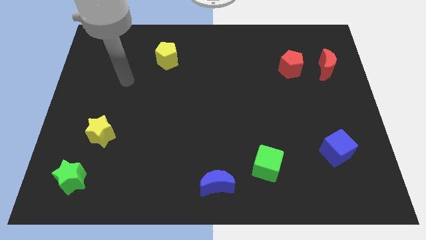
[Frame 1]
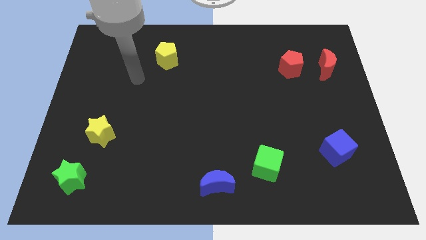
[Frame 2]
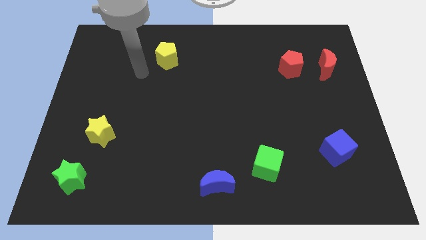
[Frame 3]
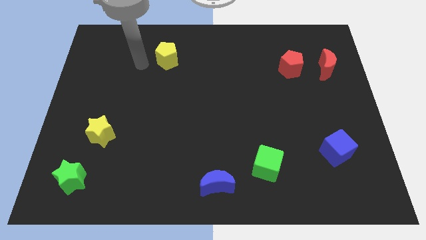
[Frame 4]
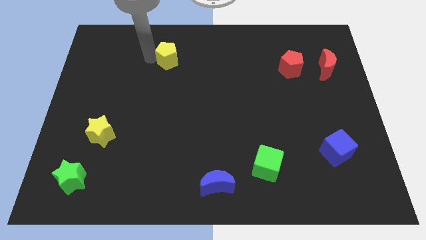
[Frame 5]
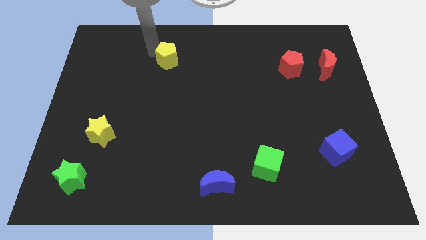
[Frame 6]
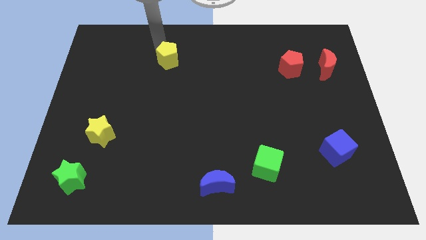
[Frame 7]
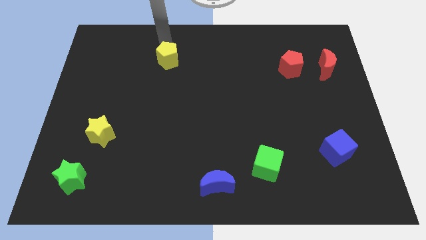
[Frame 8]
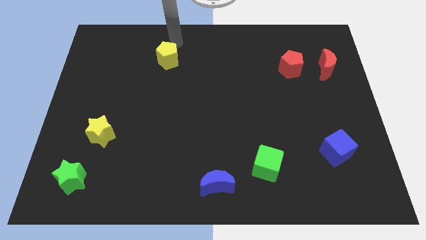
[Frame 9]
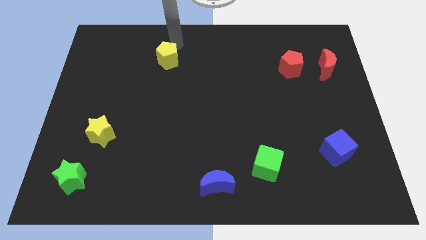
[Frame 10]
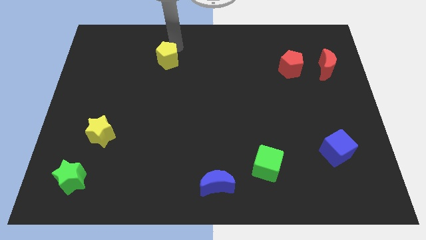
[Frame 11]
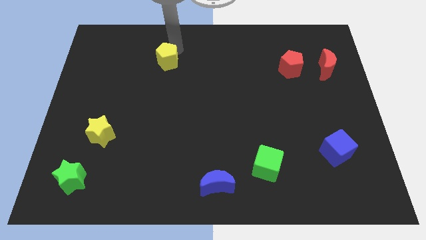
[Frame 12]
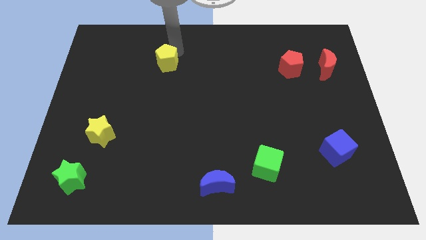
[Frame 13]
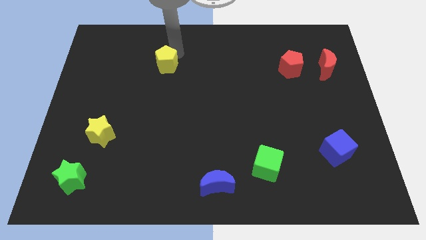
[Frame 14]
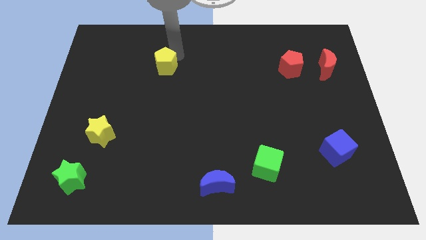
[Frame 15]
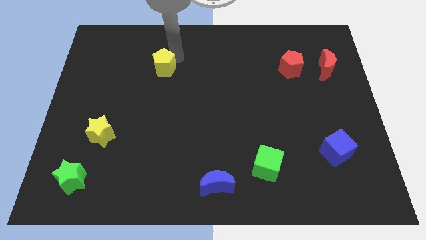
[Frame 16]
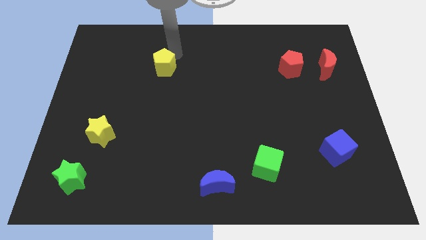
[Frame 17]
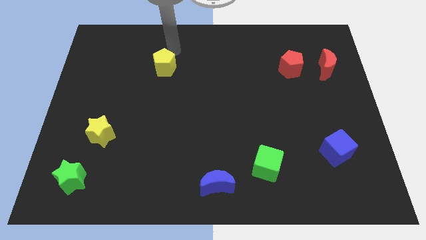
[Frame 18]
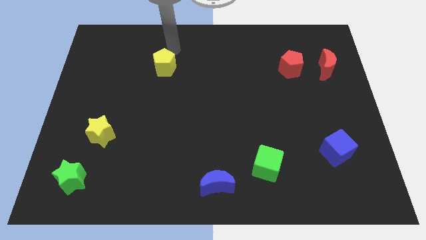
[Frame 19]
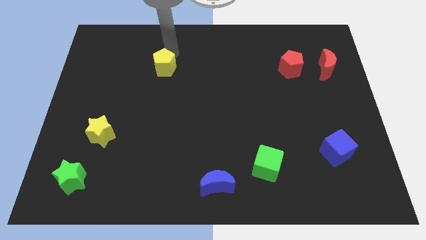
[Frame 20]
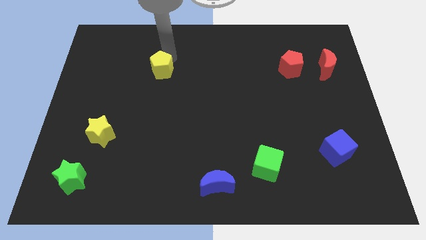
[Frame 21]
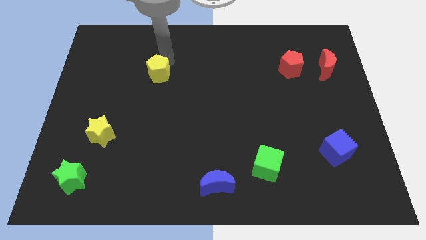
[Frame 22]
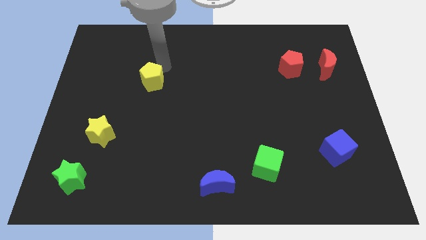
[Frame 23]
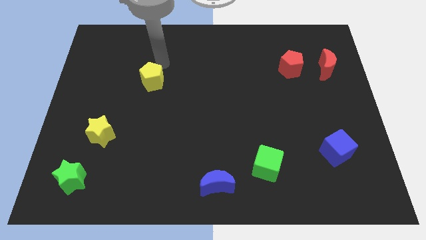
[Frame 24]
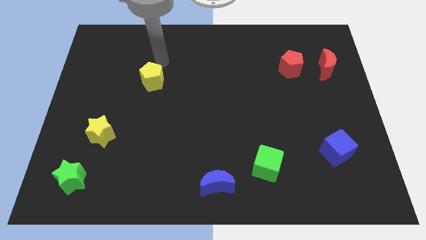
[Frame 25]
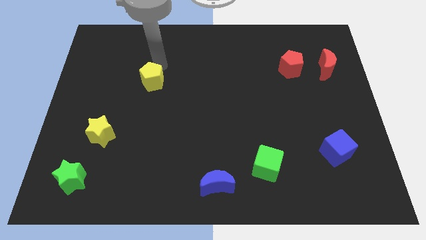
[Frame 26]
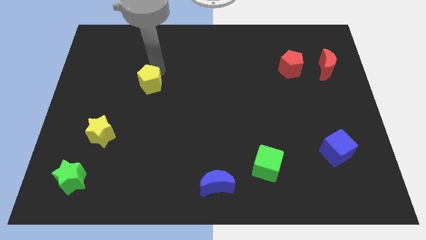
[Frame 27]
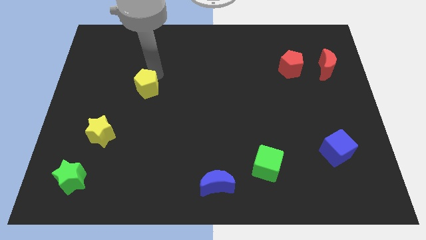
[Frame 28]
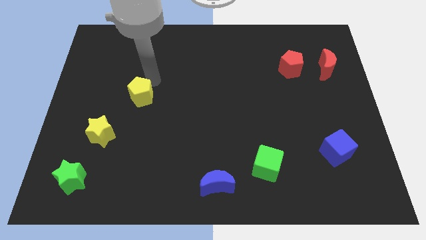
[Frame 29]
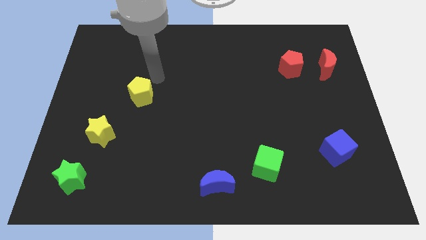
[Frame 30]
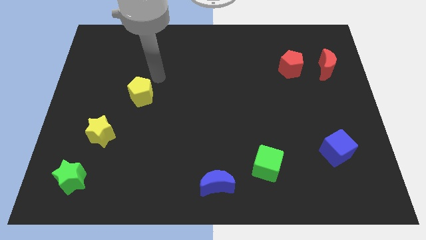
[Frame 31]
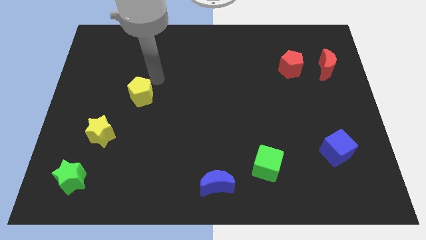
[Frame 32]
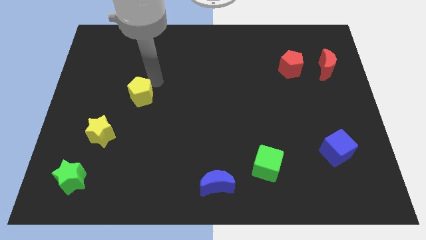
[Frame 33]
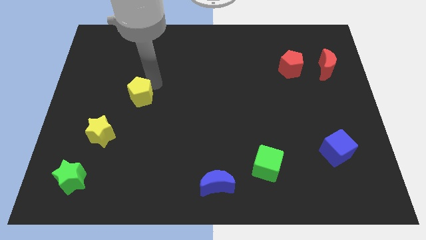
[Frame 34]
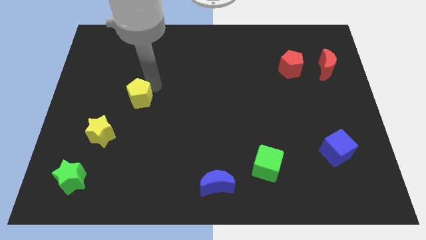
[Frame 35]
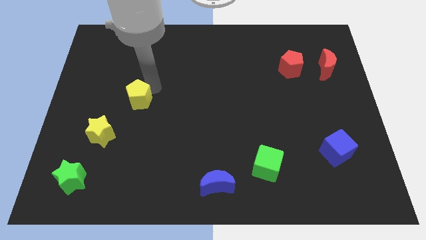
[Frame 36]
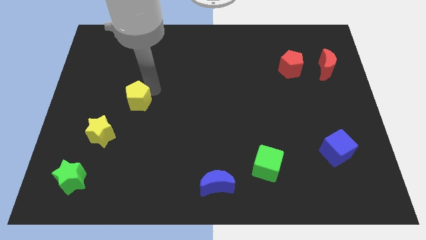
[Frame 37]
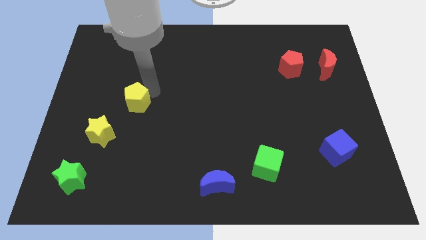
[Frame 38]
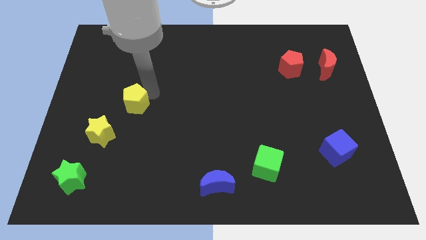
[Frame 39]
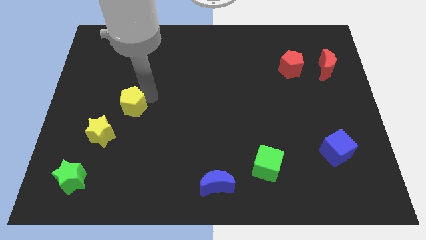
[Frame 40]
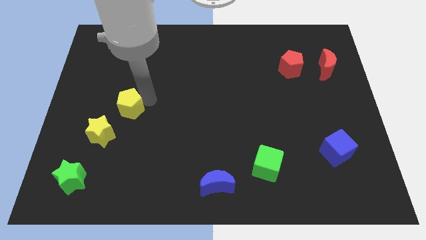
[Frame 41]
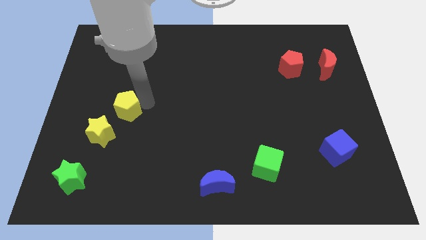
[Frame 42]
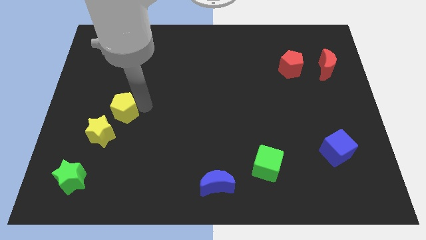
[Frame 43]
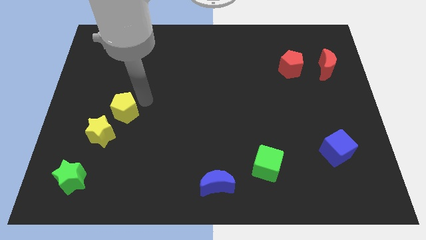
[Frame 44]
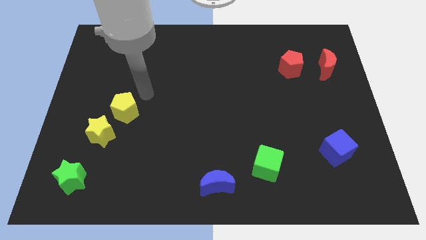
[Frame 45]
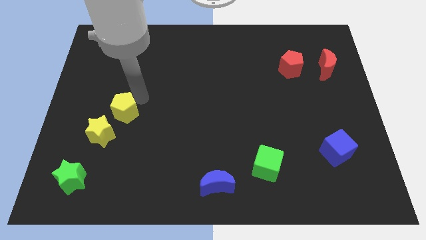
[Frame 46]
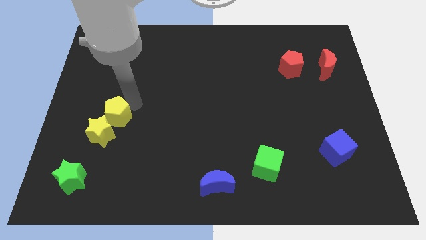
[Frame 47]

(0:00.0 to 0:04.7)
put the yellow pentagon towards the yellow star

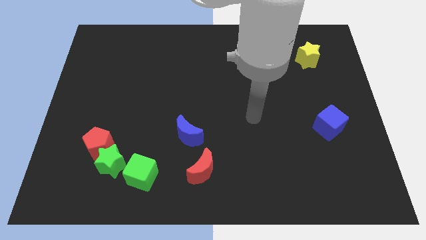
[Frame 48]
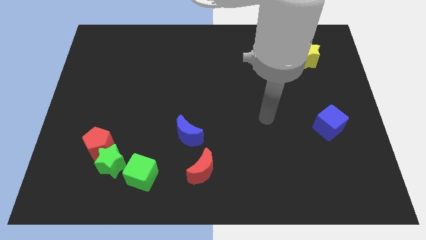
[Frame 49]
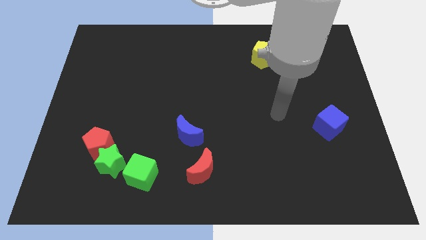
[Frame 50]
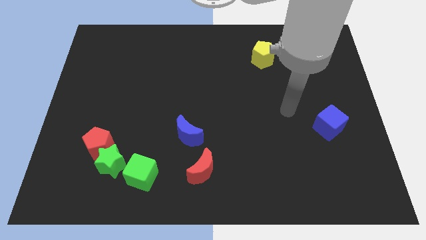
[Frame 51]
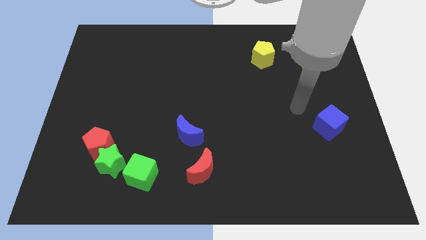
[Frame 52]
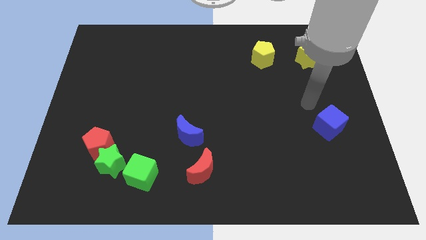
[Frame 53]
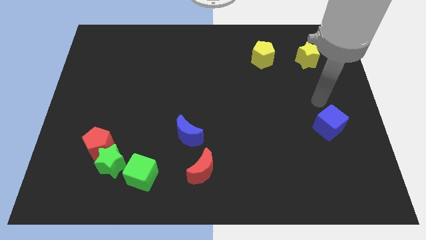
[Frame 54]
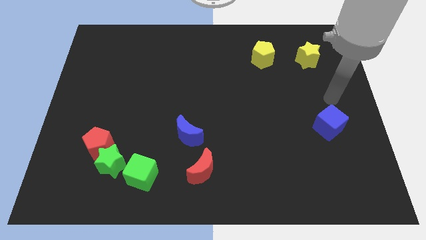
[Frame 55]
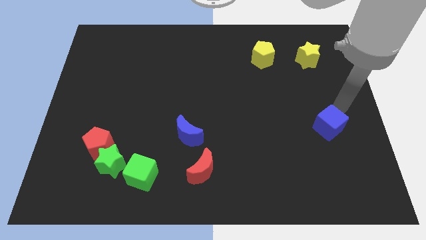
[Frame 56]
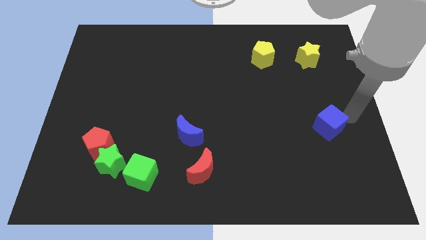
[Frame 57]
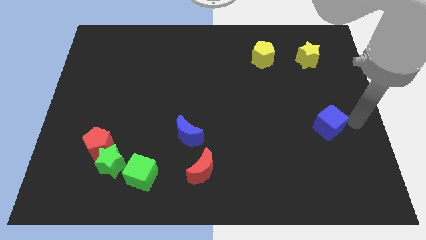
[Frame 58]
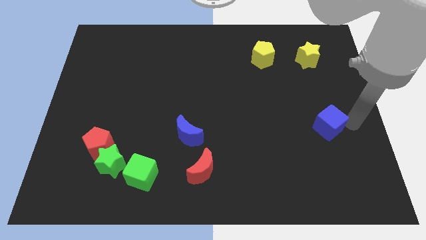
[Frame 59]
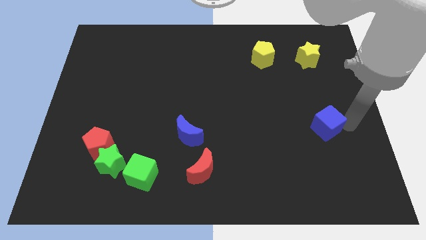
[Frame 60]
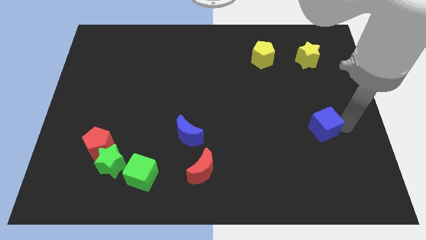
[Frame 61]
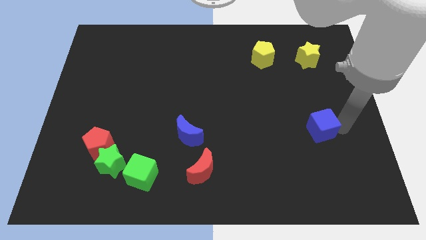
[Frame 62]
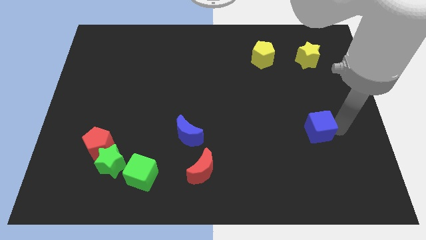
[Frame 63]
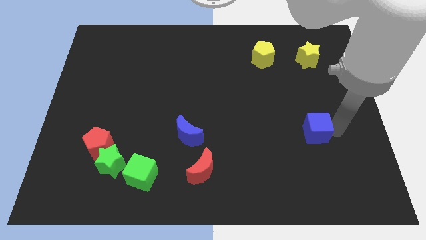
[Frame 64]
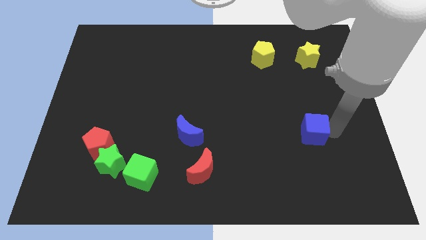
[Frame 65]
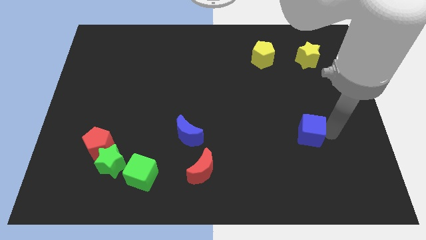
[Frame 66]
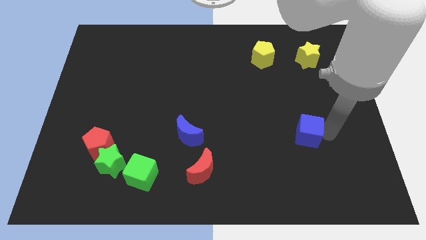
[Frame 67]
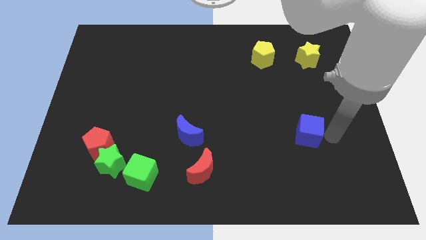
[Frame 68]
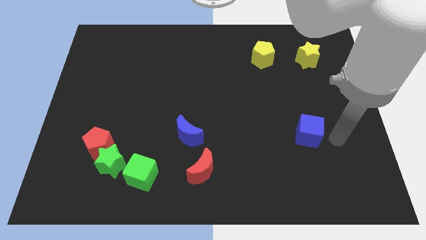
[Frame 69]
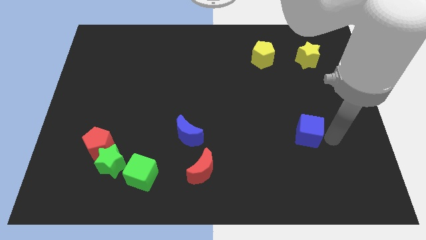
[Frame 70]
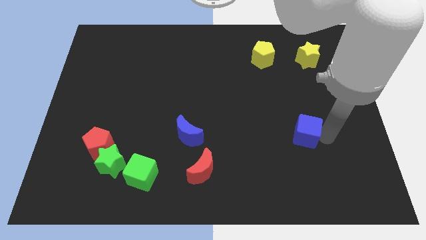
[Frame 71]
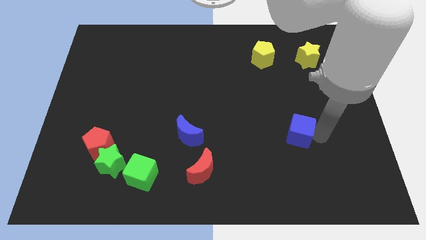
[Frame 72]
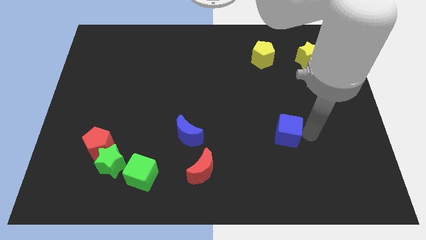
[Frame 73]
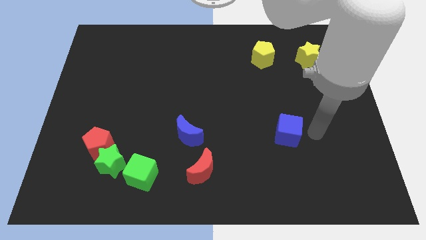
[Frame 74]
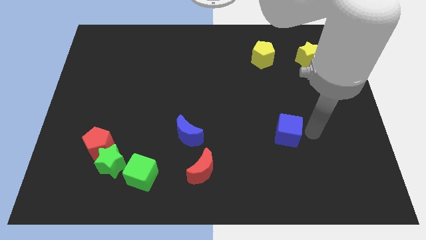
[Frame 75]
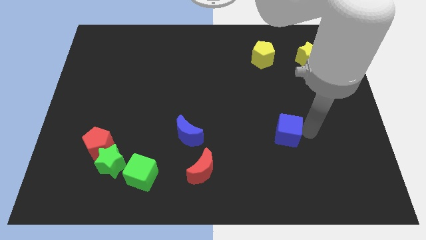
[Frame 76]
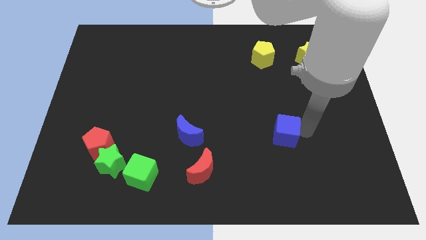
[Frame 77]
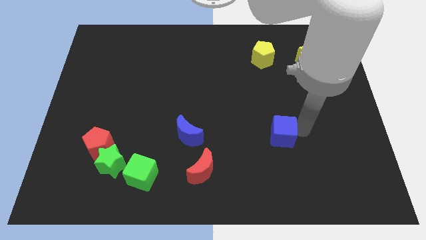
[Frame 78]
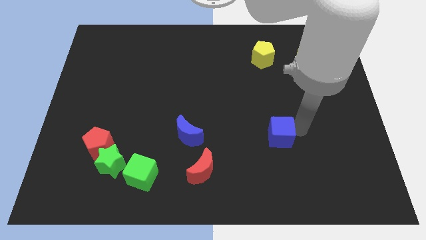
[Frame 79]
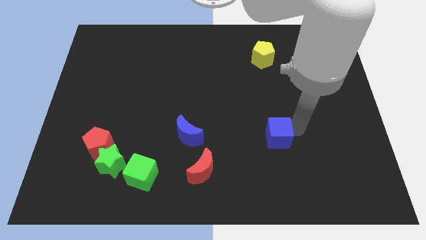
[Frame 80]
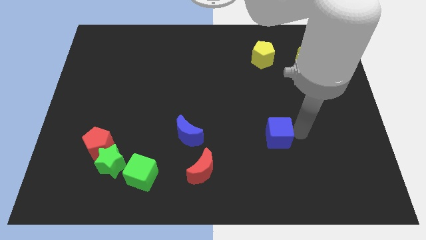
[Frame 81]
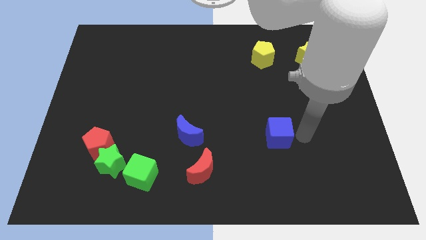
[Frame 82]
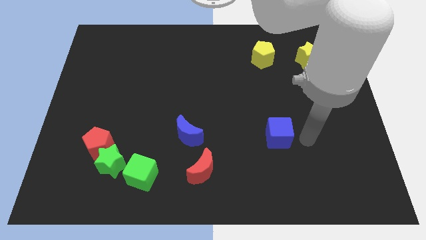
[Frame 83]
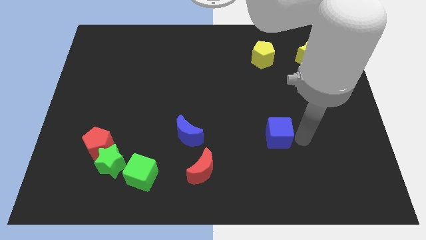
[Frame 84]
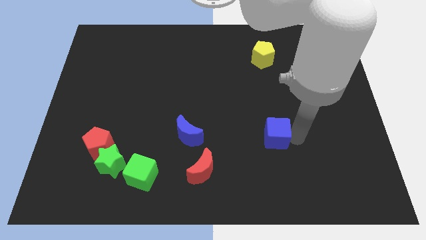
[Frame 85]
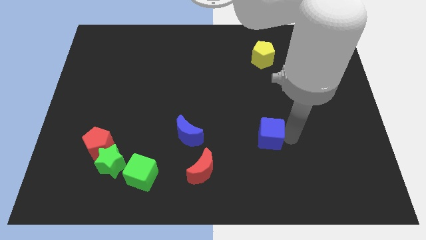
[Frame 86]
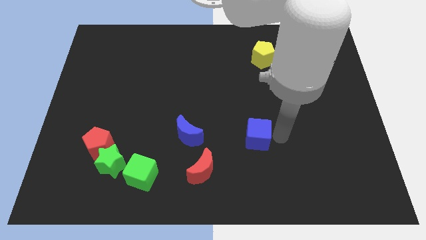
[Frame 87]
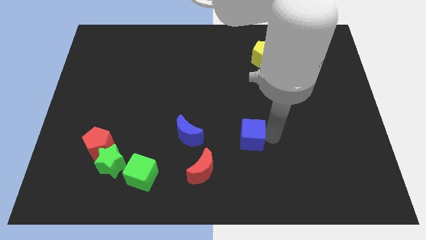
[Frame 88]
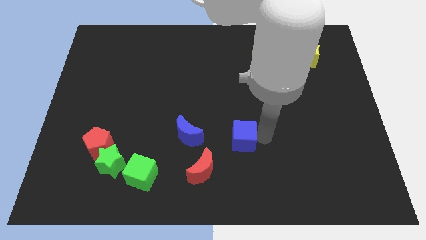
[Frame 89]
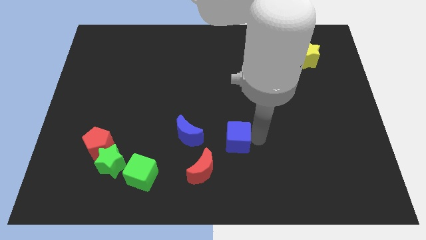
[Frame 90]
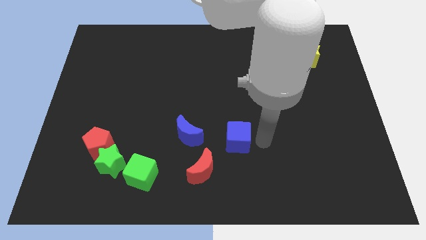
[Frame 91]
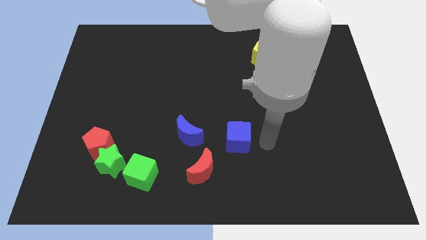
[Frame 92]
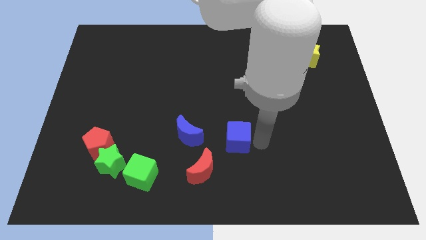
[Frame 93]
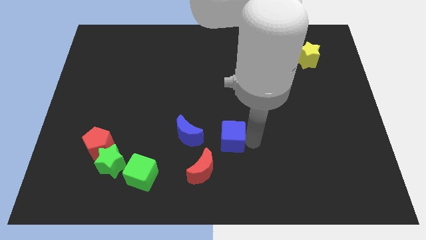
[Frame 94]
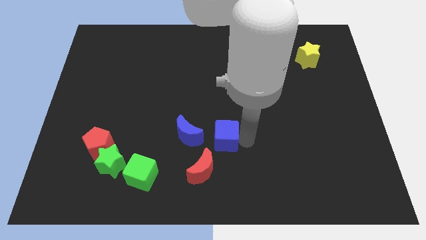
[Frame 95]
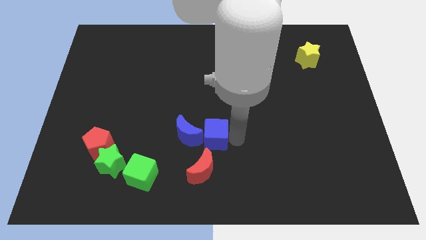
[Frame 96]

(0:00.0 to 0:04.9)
move the blue cube towards the blue moon
